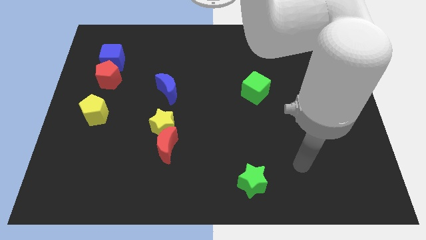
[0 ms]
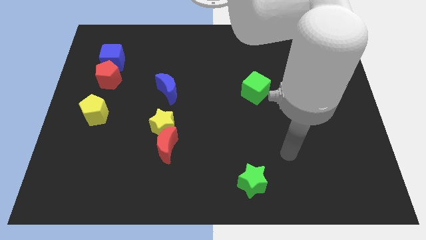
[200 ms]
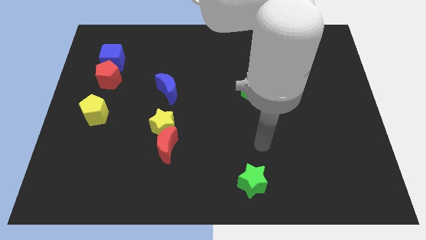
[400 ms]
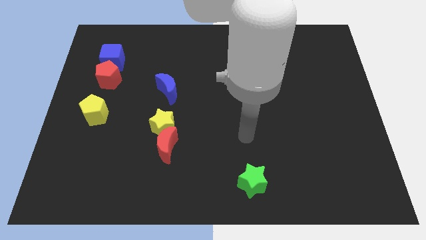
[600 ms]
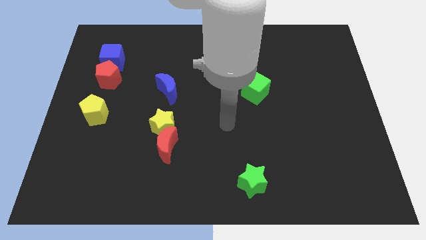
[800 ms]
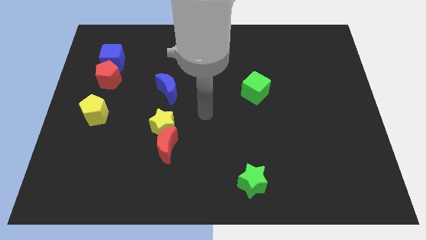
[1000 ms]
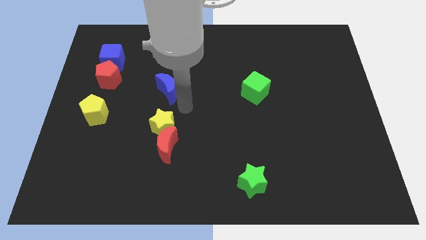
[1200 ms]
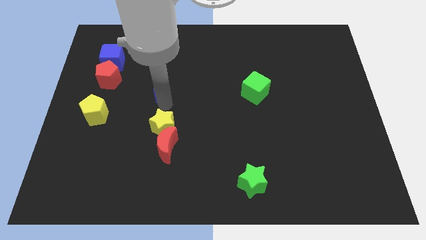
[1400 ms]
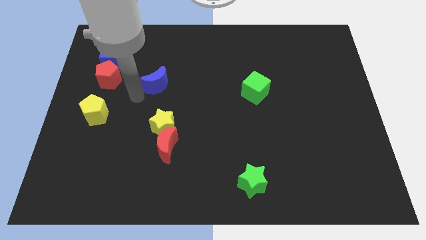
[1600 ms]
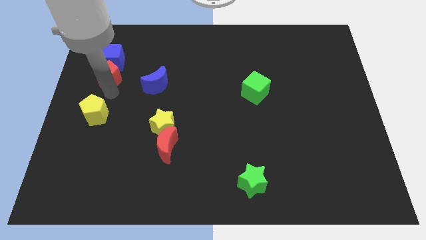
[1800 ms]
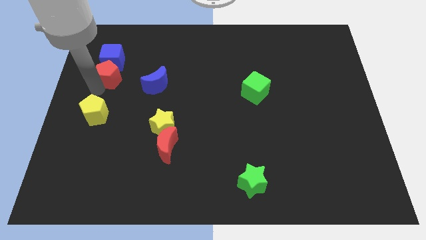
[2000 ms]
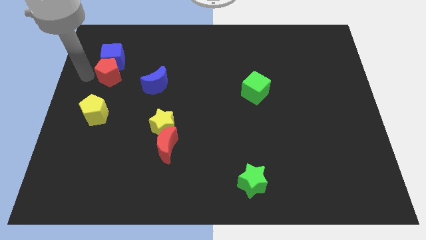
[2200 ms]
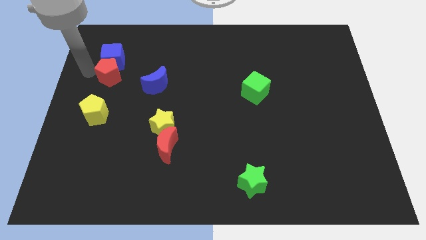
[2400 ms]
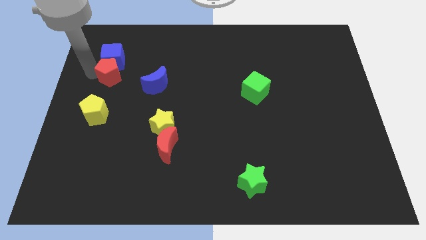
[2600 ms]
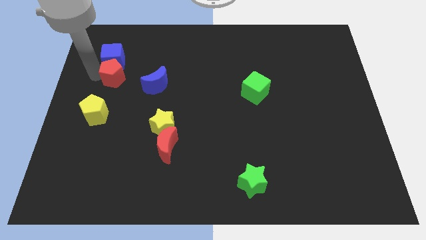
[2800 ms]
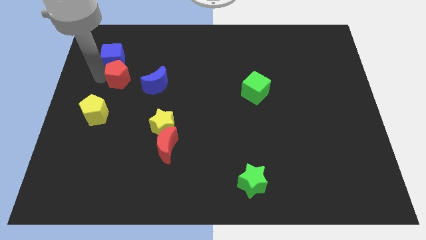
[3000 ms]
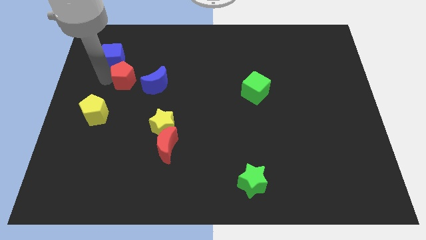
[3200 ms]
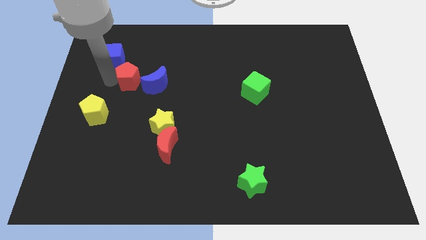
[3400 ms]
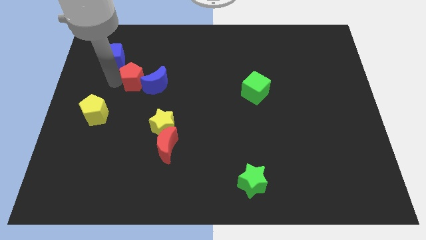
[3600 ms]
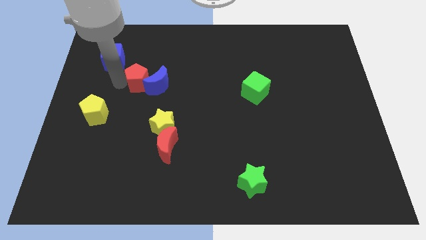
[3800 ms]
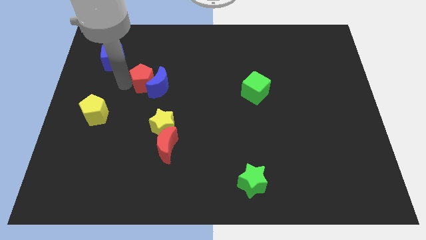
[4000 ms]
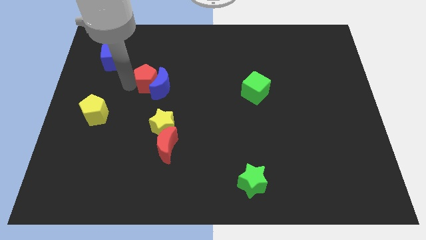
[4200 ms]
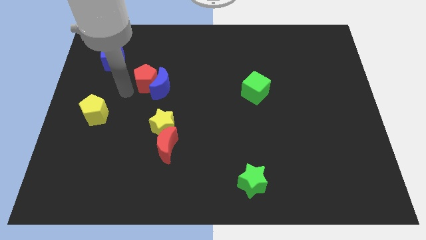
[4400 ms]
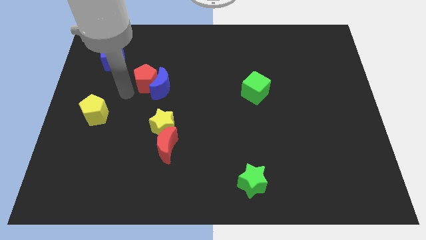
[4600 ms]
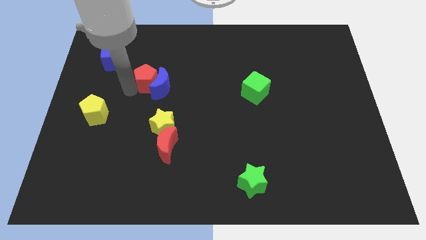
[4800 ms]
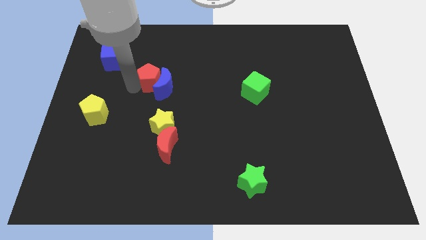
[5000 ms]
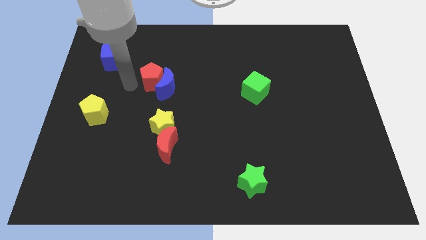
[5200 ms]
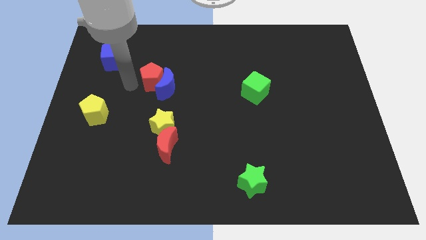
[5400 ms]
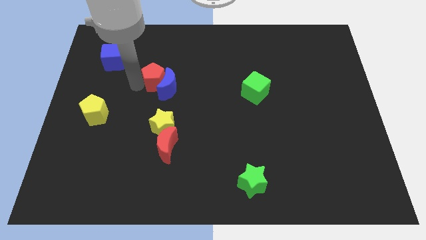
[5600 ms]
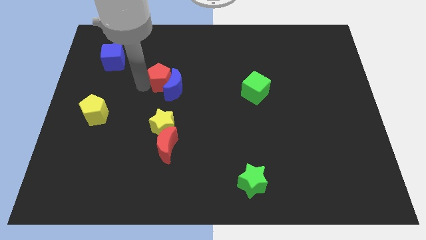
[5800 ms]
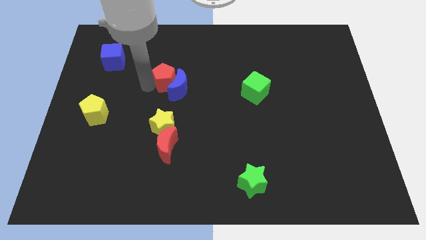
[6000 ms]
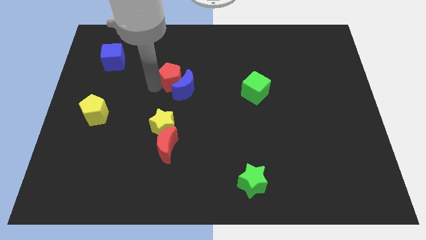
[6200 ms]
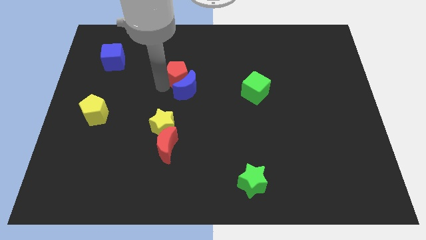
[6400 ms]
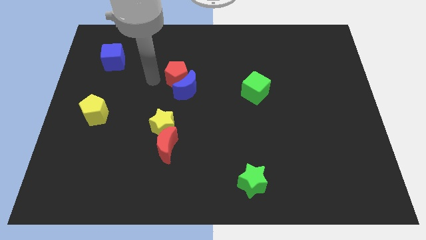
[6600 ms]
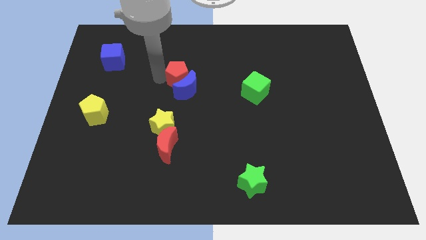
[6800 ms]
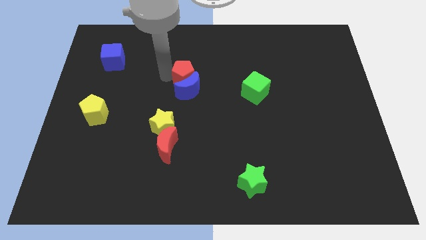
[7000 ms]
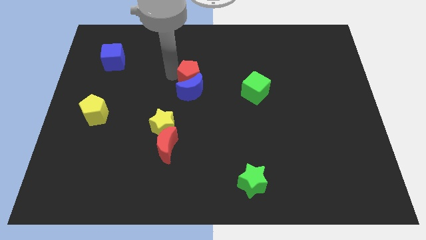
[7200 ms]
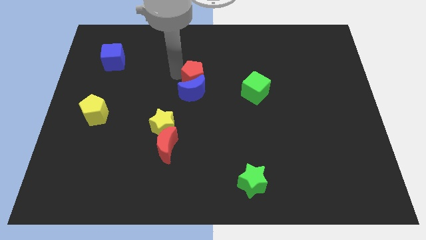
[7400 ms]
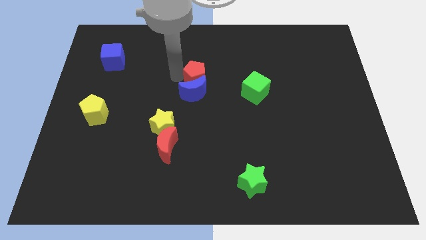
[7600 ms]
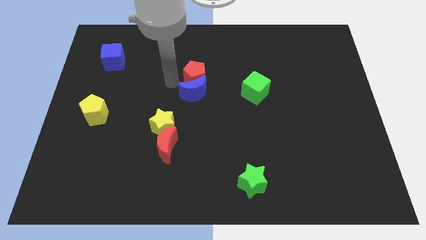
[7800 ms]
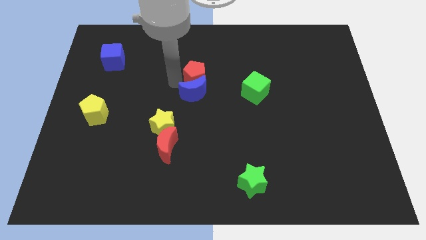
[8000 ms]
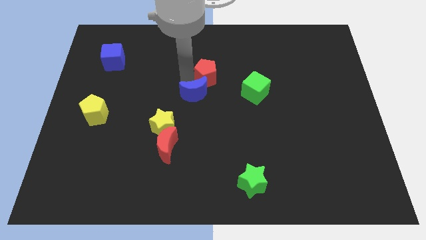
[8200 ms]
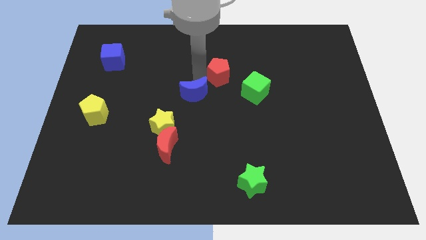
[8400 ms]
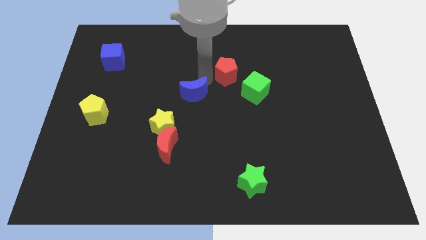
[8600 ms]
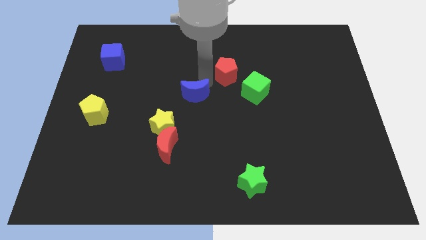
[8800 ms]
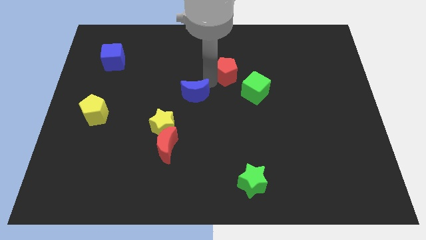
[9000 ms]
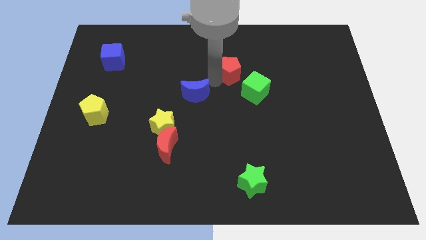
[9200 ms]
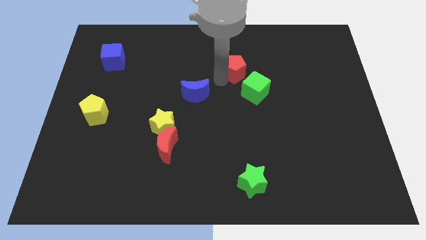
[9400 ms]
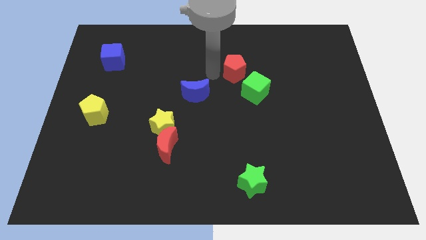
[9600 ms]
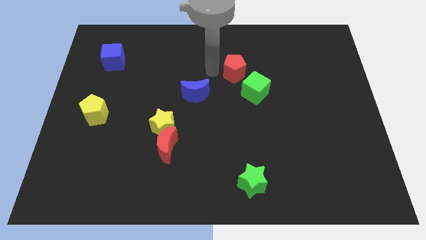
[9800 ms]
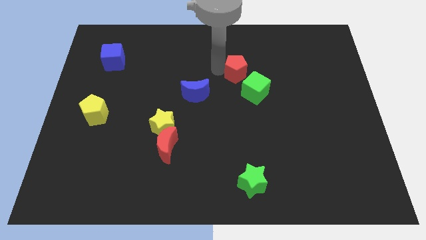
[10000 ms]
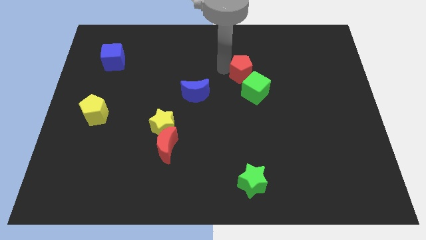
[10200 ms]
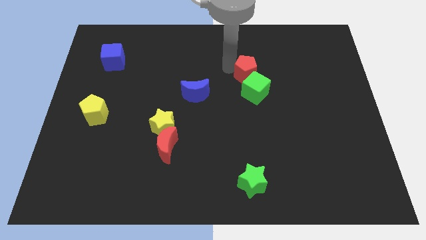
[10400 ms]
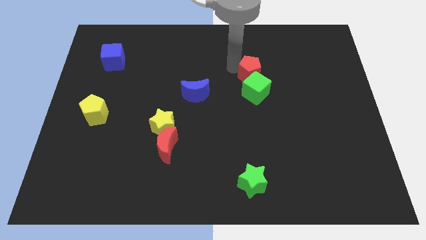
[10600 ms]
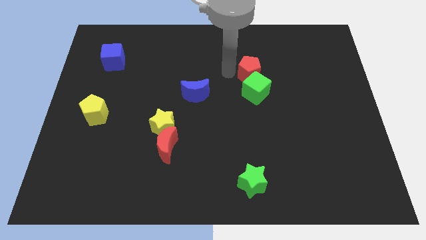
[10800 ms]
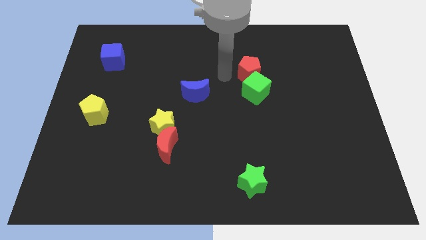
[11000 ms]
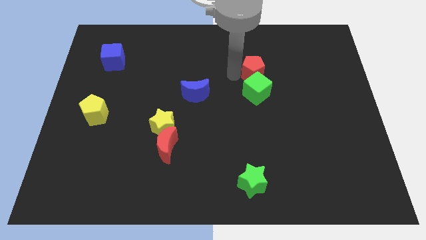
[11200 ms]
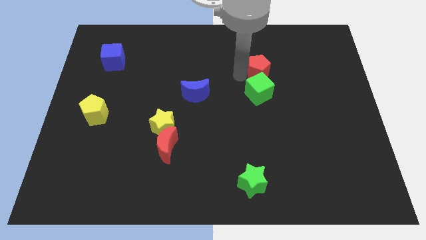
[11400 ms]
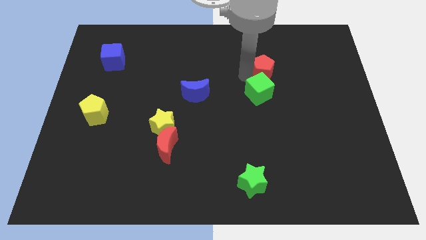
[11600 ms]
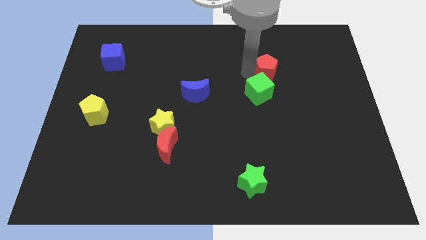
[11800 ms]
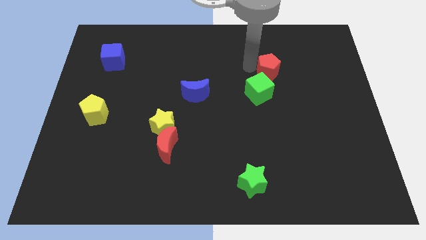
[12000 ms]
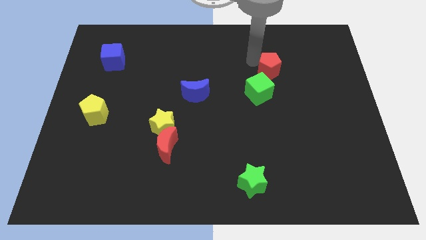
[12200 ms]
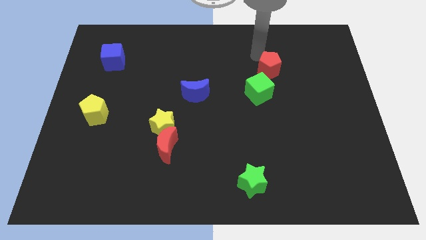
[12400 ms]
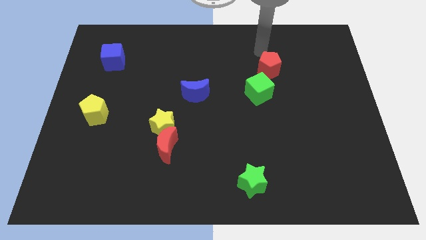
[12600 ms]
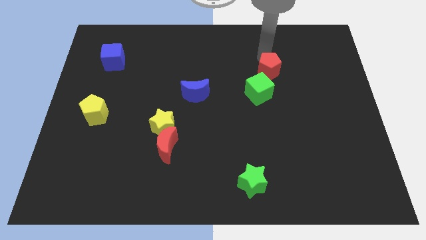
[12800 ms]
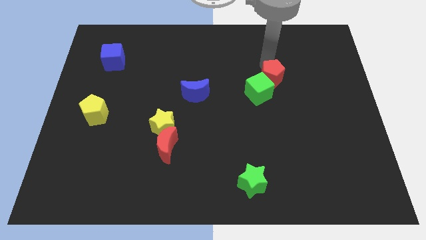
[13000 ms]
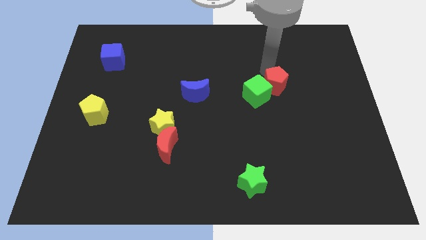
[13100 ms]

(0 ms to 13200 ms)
slide the red pentagon to the right of the green cube

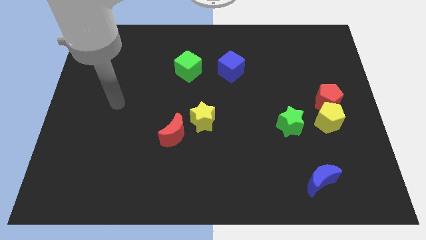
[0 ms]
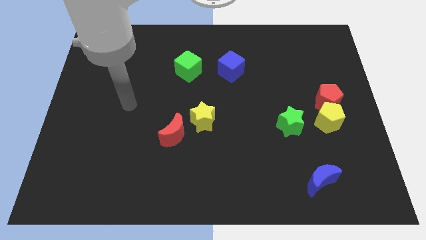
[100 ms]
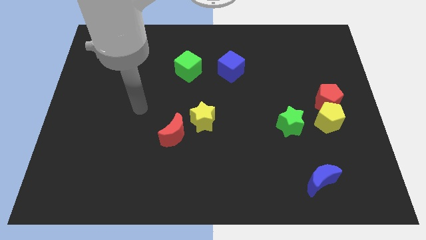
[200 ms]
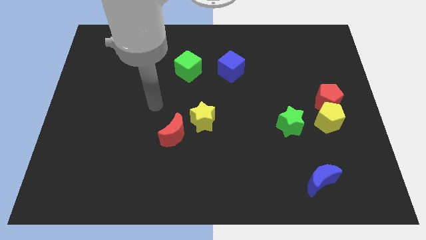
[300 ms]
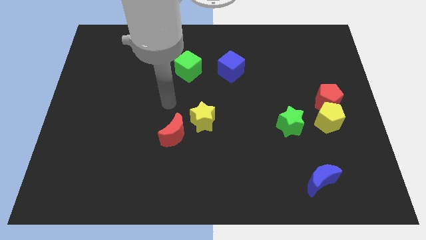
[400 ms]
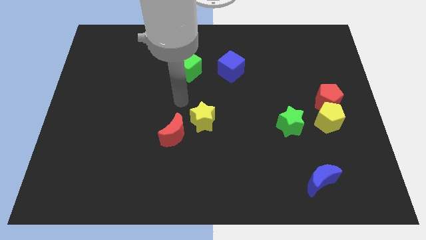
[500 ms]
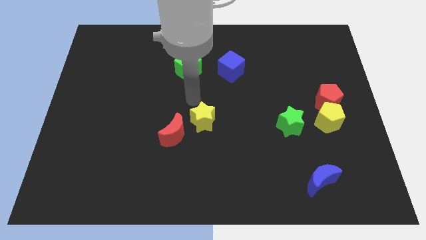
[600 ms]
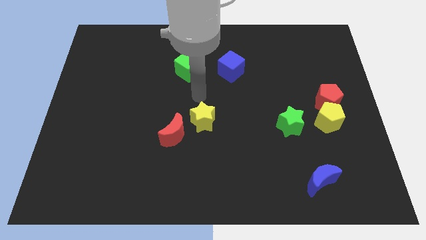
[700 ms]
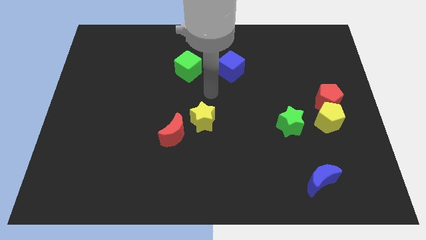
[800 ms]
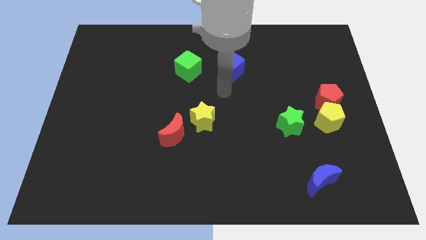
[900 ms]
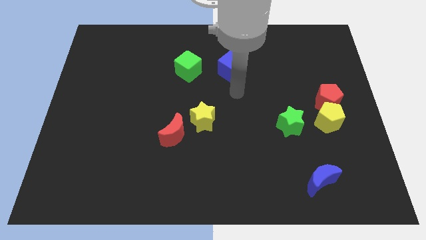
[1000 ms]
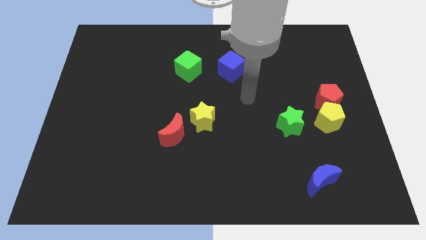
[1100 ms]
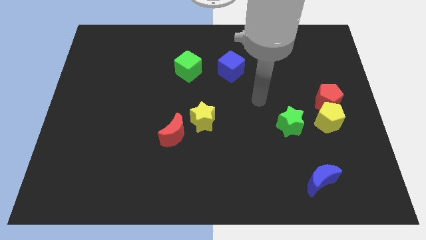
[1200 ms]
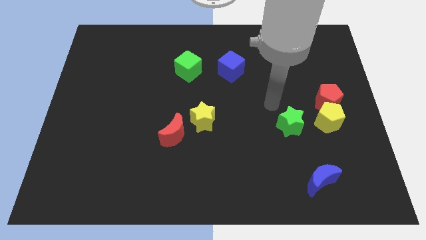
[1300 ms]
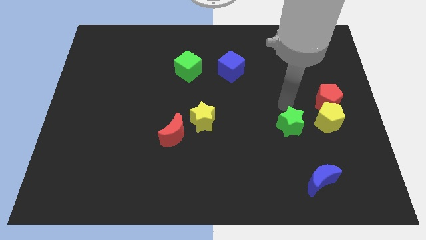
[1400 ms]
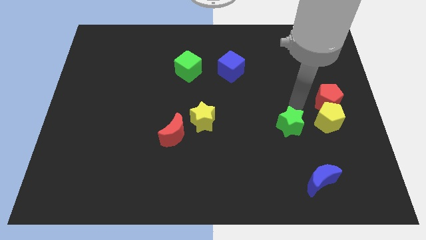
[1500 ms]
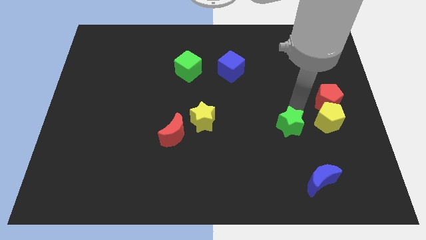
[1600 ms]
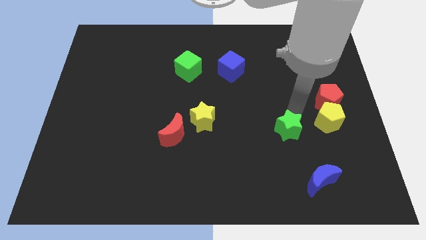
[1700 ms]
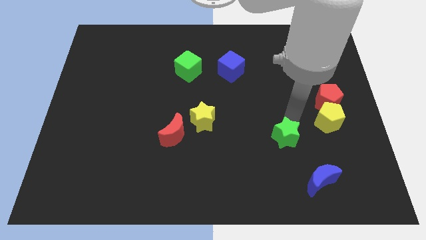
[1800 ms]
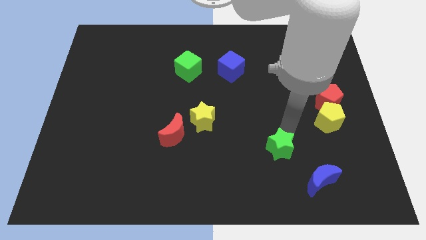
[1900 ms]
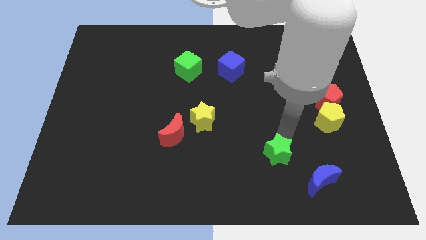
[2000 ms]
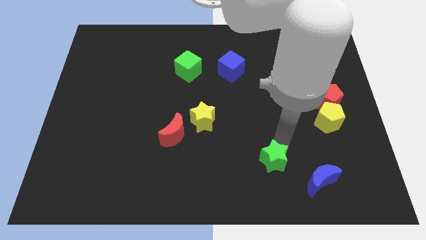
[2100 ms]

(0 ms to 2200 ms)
slide the green star left of the blue moon
